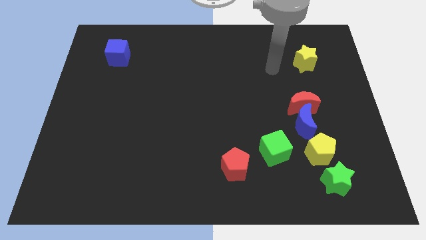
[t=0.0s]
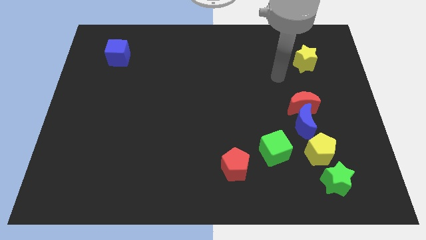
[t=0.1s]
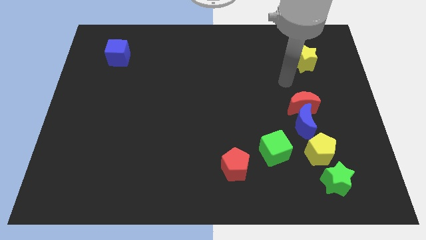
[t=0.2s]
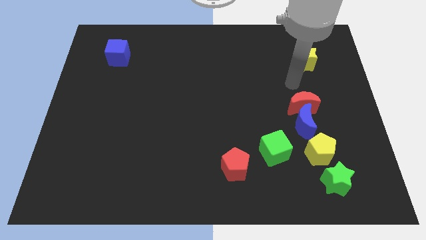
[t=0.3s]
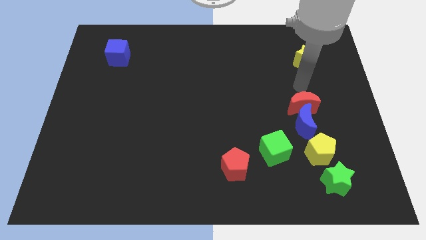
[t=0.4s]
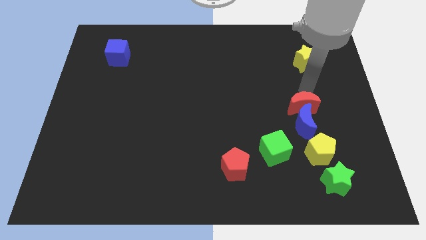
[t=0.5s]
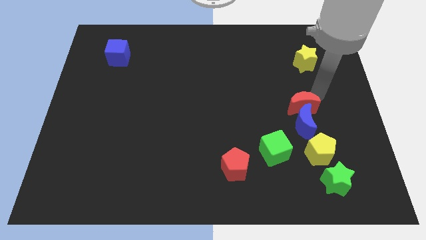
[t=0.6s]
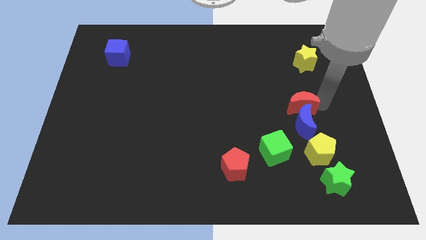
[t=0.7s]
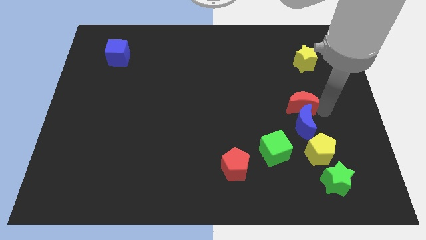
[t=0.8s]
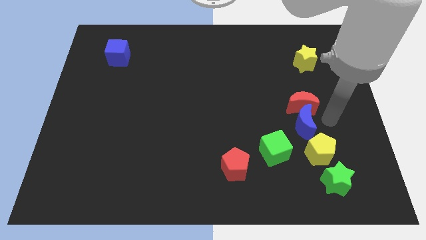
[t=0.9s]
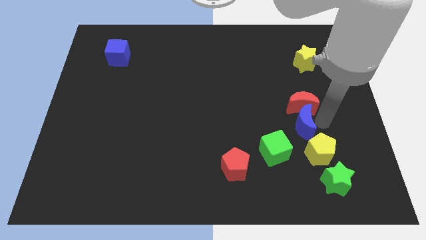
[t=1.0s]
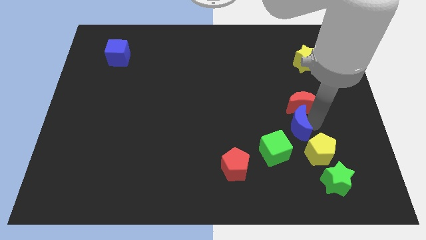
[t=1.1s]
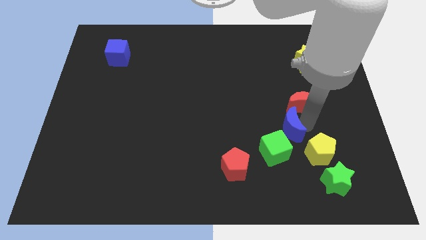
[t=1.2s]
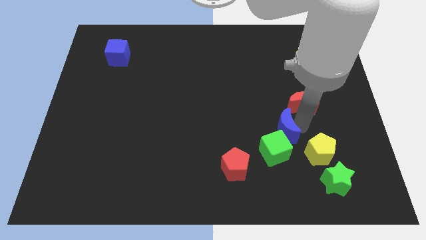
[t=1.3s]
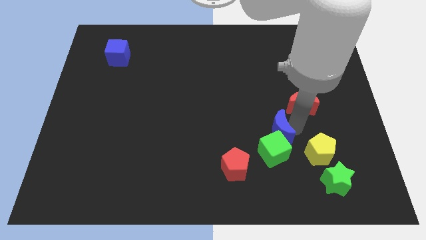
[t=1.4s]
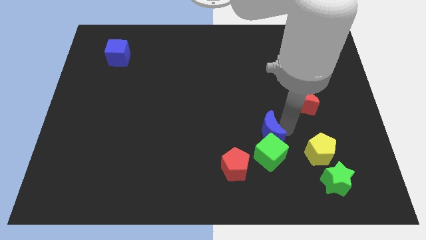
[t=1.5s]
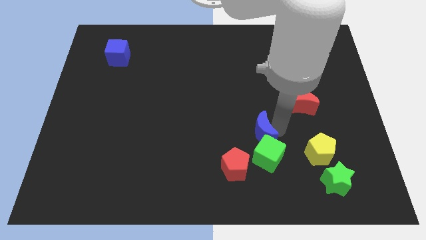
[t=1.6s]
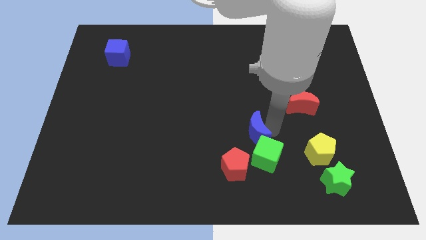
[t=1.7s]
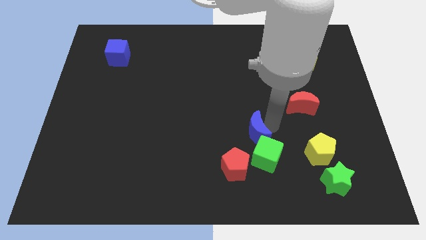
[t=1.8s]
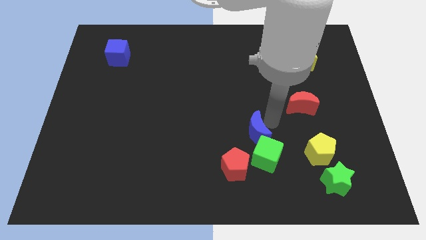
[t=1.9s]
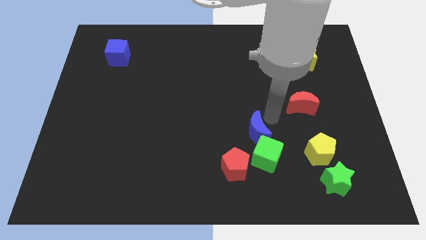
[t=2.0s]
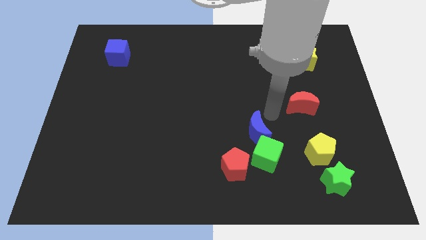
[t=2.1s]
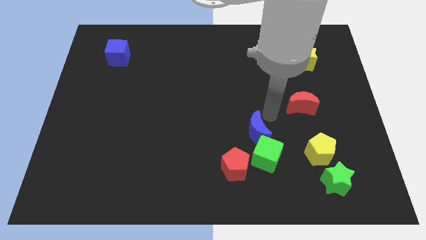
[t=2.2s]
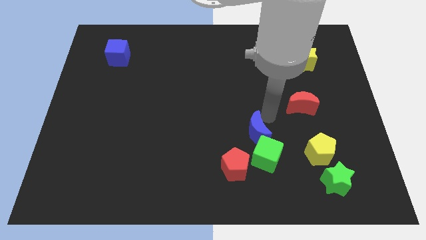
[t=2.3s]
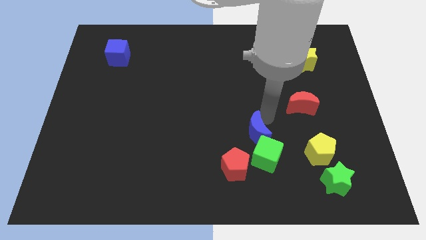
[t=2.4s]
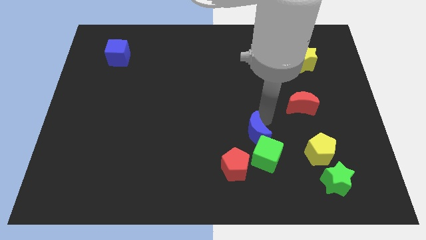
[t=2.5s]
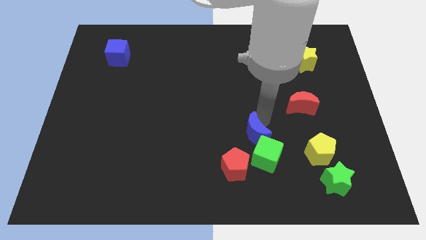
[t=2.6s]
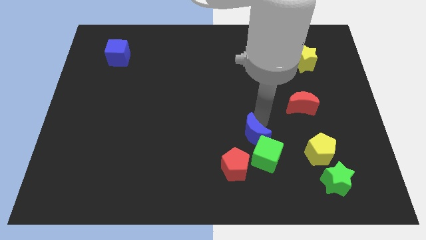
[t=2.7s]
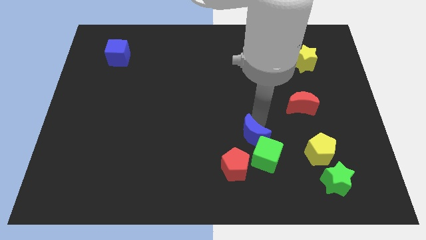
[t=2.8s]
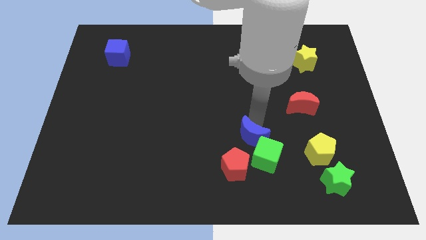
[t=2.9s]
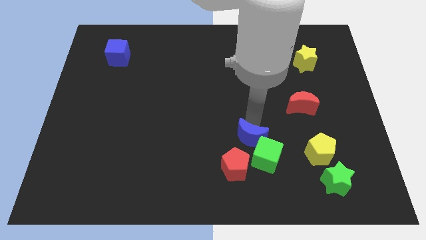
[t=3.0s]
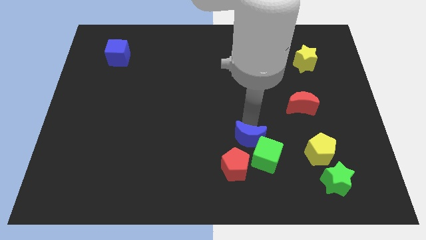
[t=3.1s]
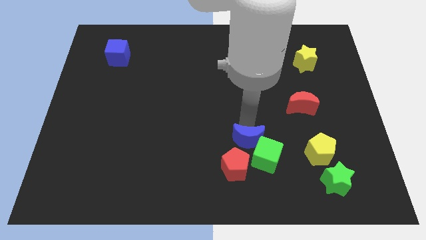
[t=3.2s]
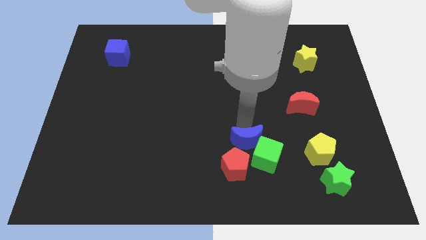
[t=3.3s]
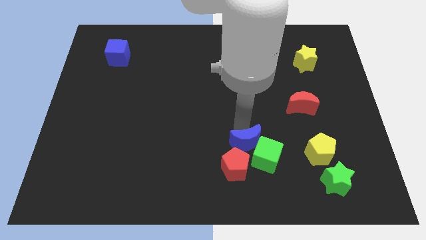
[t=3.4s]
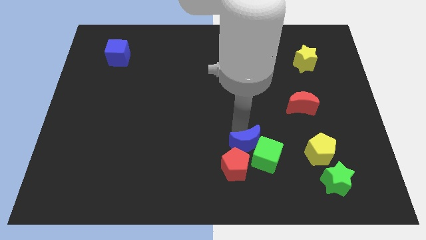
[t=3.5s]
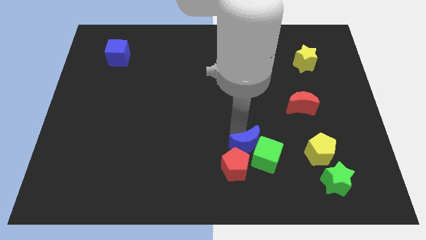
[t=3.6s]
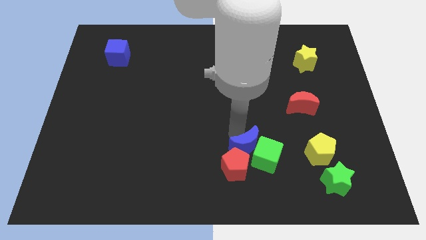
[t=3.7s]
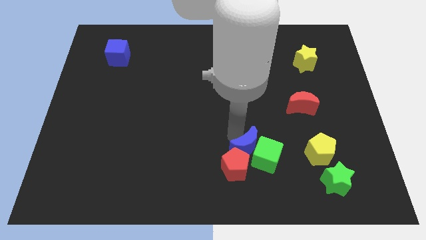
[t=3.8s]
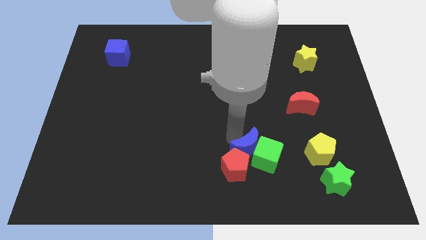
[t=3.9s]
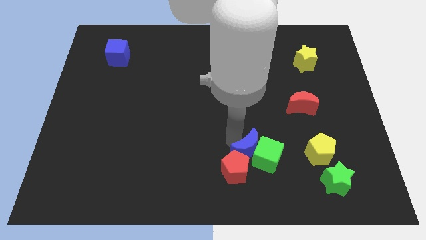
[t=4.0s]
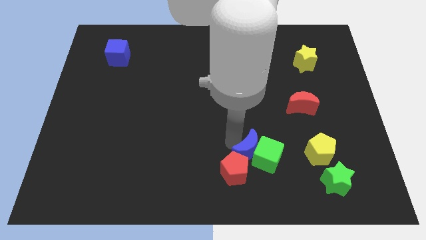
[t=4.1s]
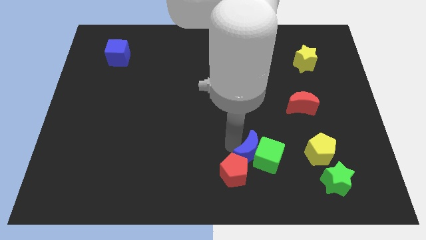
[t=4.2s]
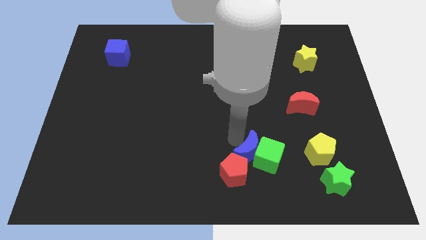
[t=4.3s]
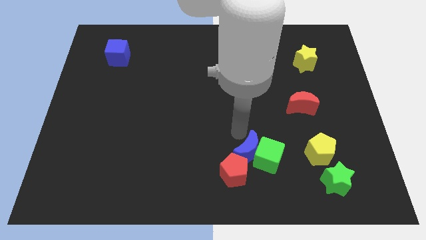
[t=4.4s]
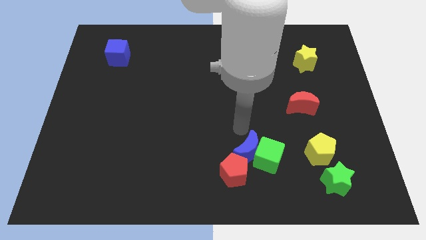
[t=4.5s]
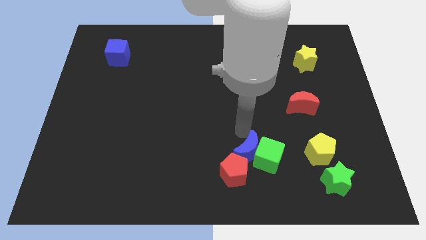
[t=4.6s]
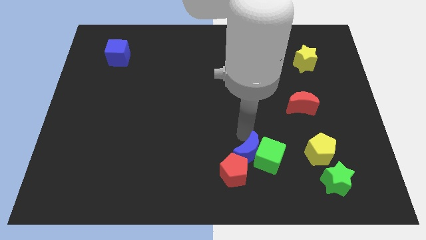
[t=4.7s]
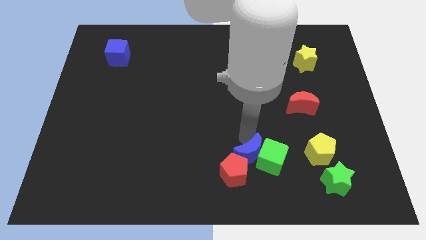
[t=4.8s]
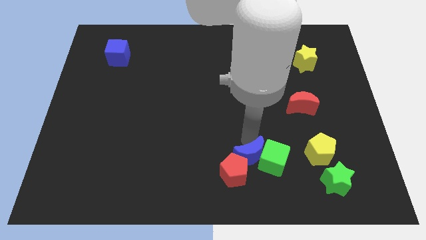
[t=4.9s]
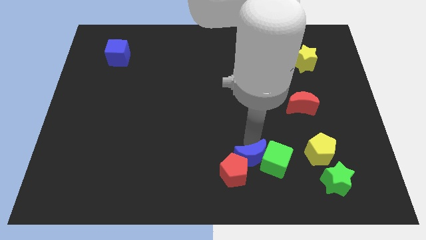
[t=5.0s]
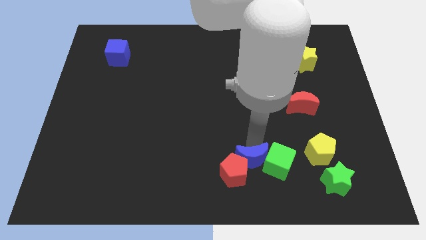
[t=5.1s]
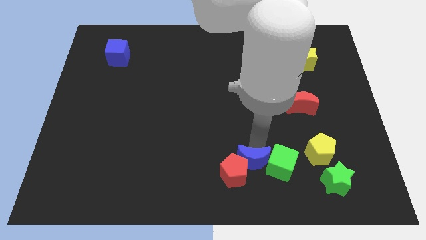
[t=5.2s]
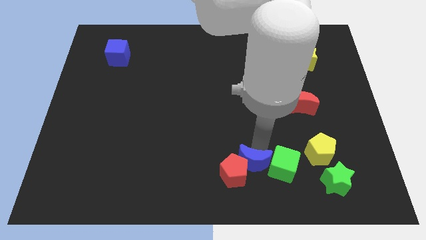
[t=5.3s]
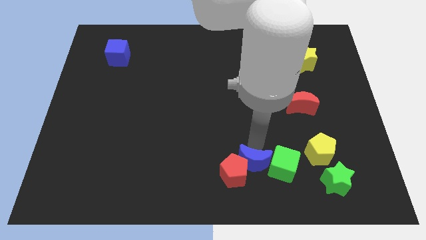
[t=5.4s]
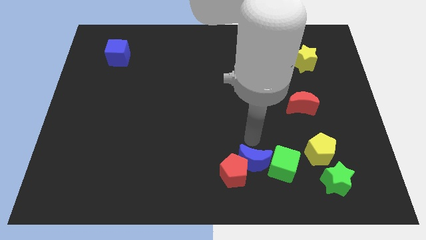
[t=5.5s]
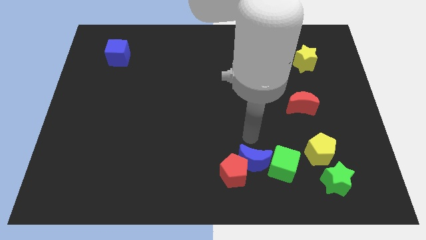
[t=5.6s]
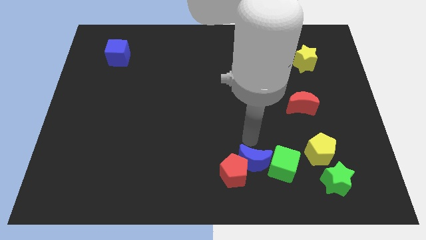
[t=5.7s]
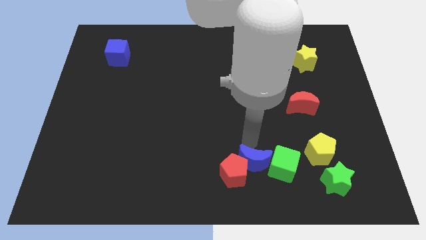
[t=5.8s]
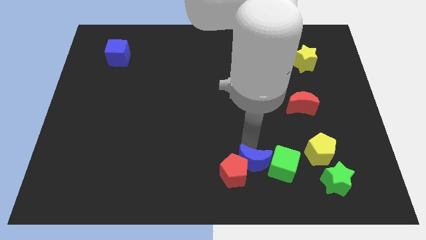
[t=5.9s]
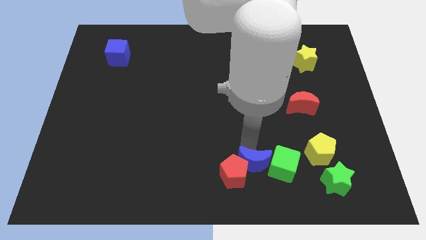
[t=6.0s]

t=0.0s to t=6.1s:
push the blue moon to the bottom side

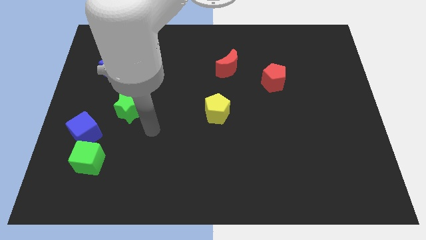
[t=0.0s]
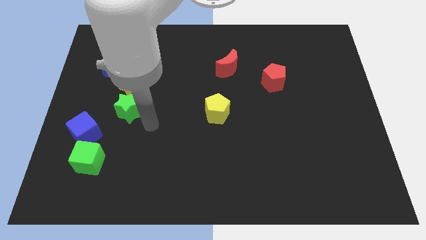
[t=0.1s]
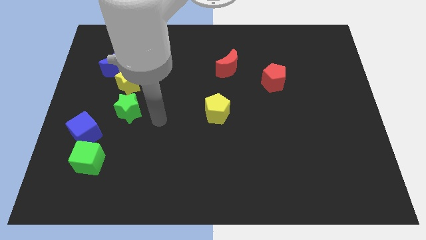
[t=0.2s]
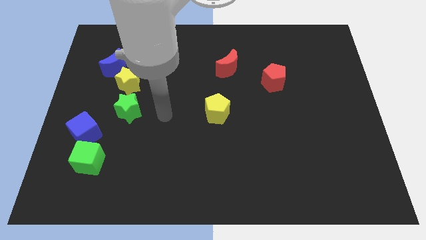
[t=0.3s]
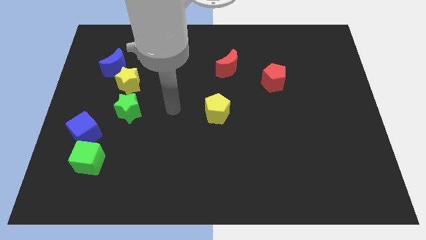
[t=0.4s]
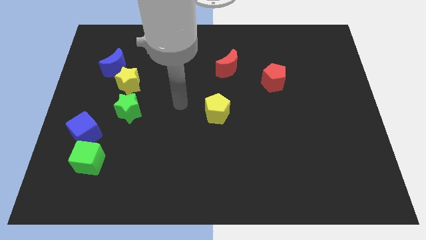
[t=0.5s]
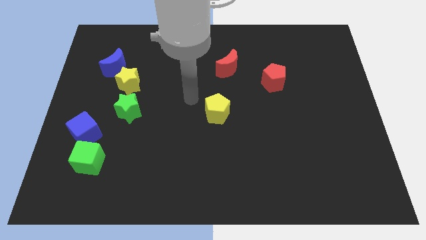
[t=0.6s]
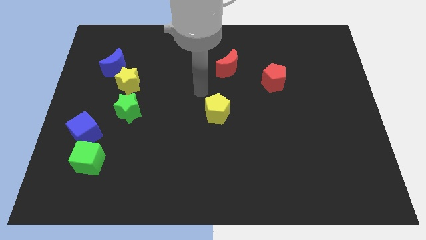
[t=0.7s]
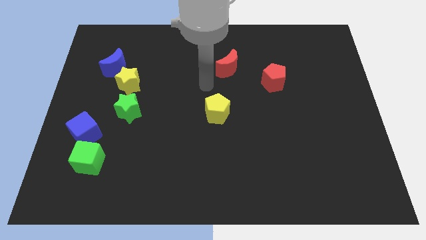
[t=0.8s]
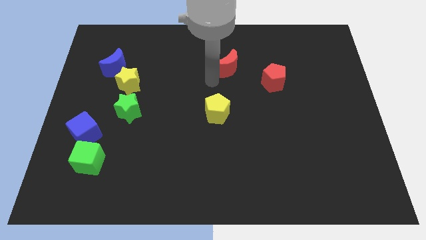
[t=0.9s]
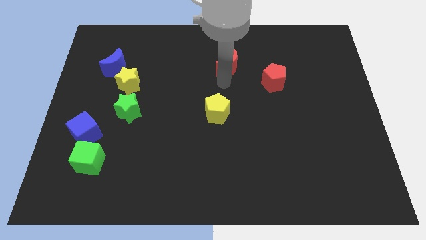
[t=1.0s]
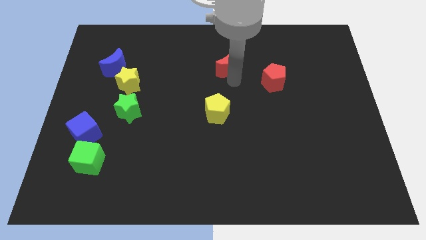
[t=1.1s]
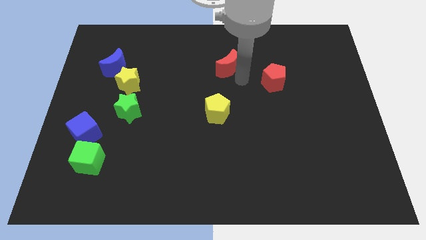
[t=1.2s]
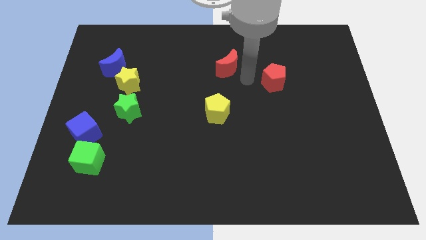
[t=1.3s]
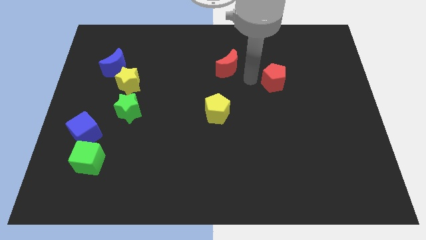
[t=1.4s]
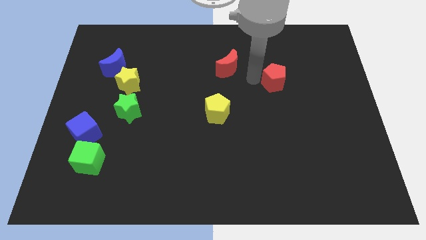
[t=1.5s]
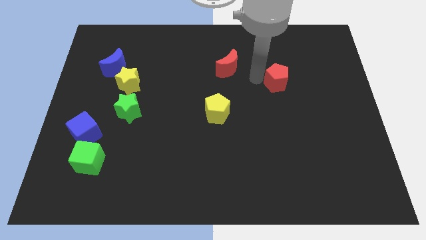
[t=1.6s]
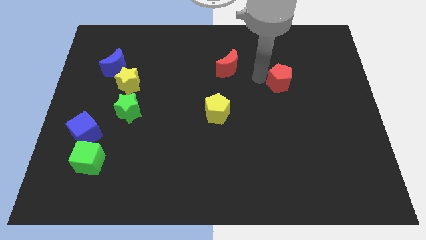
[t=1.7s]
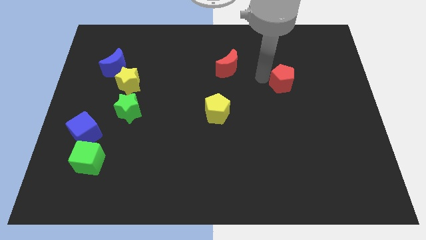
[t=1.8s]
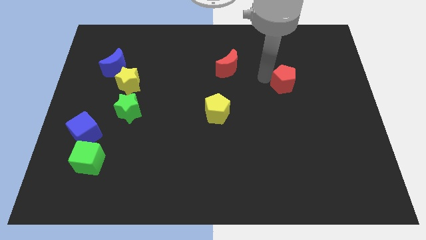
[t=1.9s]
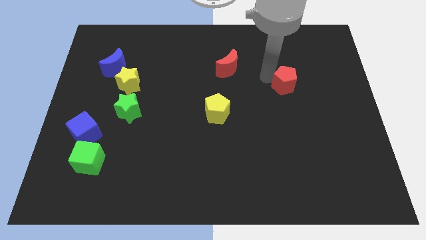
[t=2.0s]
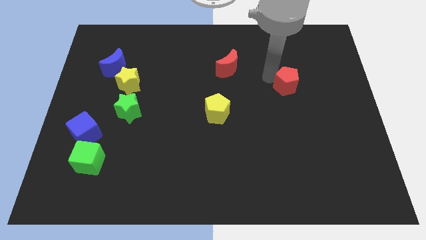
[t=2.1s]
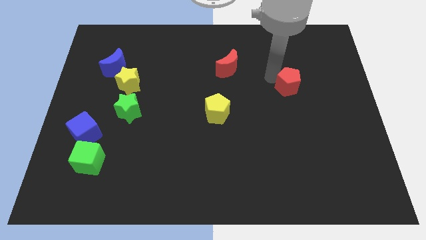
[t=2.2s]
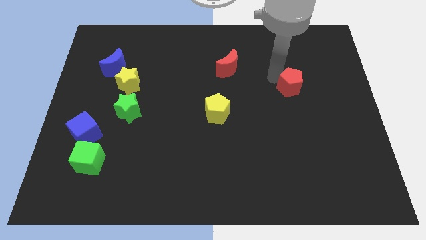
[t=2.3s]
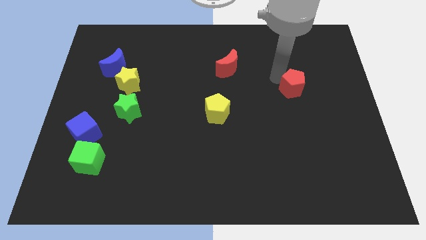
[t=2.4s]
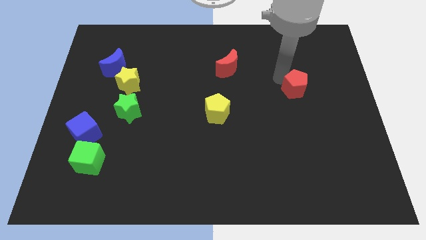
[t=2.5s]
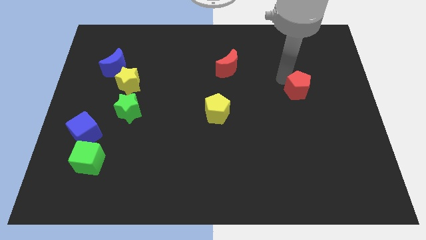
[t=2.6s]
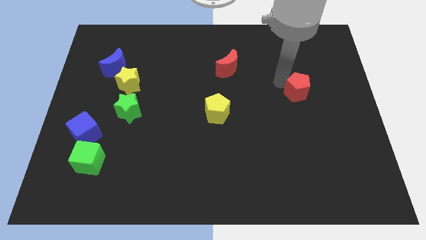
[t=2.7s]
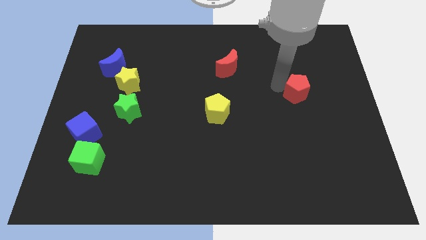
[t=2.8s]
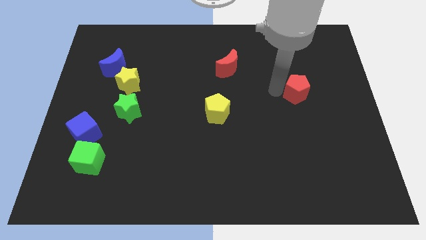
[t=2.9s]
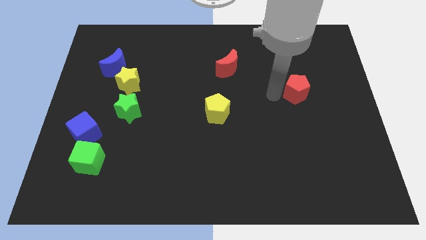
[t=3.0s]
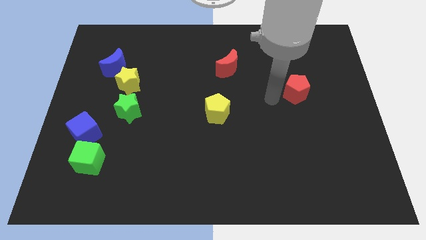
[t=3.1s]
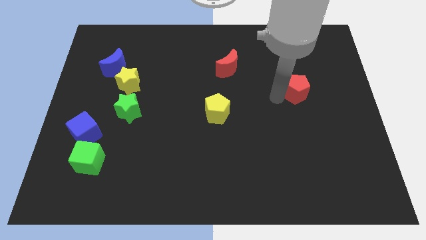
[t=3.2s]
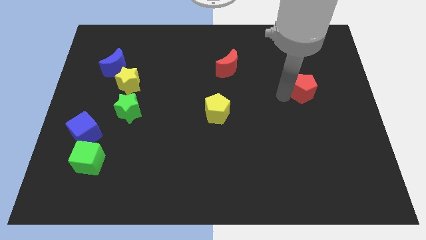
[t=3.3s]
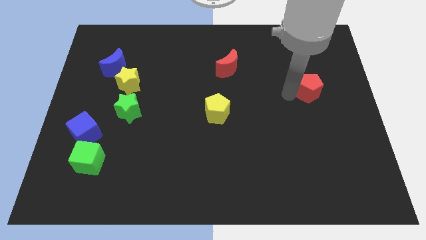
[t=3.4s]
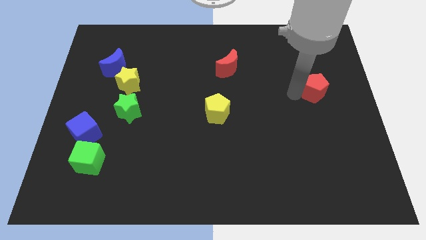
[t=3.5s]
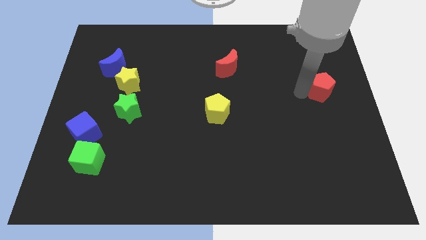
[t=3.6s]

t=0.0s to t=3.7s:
push the red pentagon to the right side of the board
